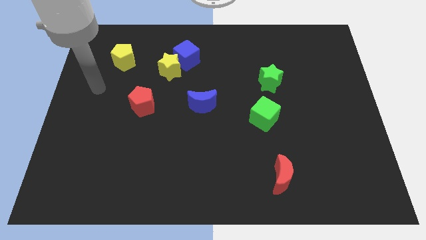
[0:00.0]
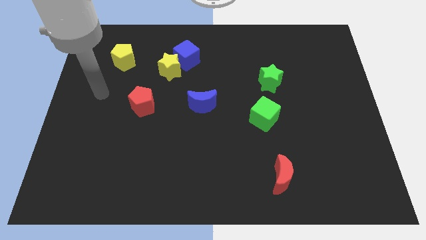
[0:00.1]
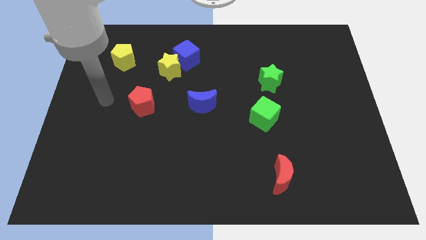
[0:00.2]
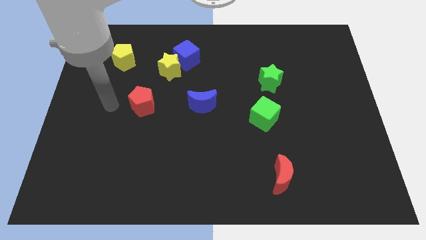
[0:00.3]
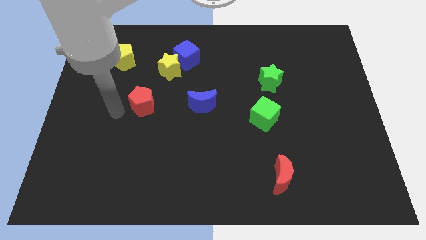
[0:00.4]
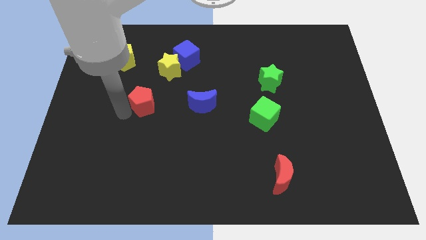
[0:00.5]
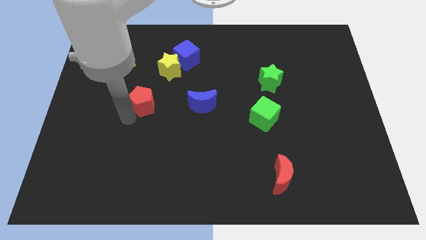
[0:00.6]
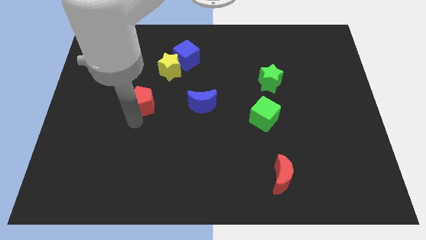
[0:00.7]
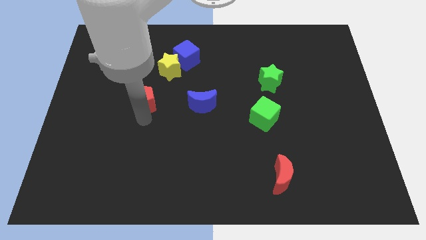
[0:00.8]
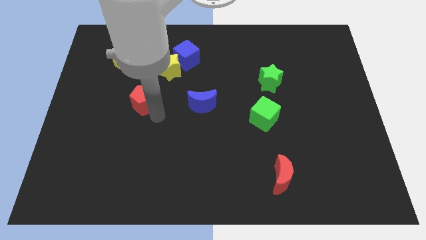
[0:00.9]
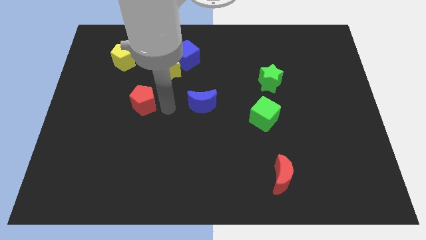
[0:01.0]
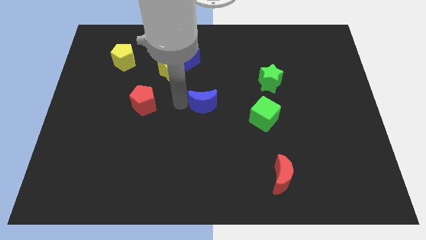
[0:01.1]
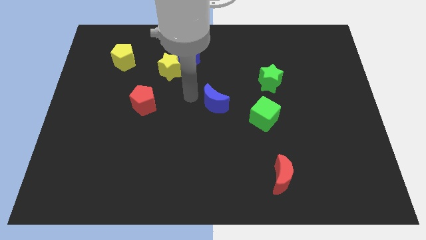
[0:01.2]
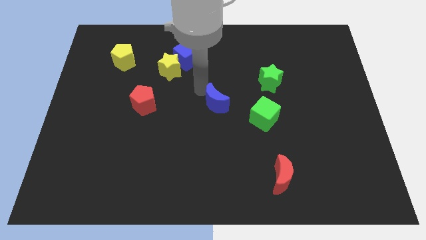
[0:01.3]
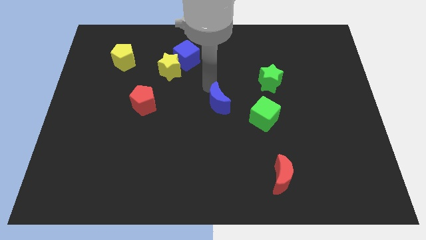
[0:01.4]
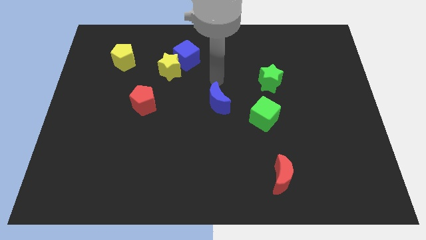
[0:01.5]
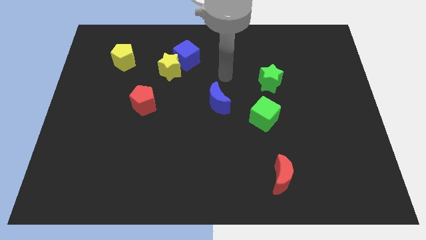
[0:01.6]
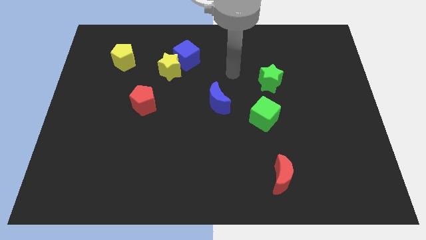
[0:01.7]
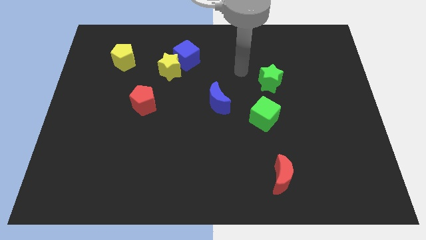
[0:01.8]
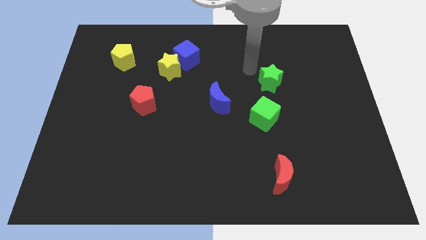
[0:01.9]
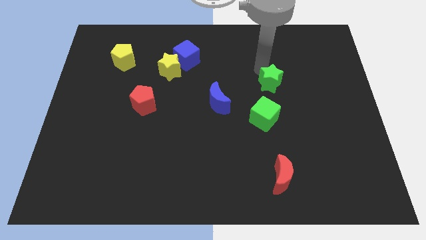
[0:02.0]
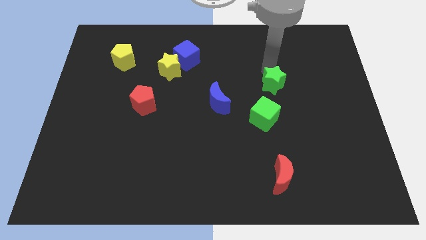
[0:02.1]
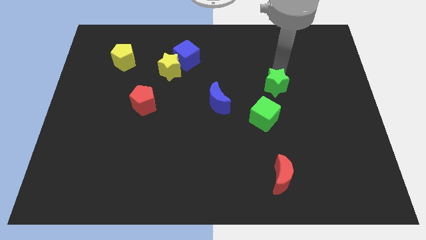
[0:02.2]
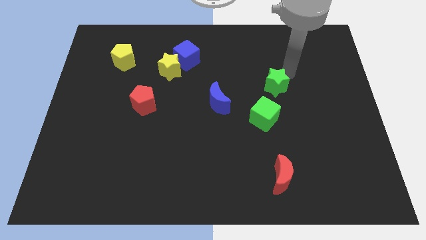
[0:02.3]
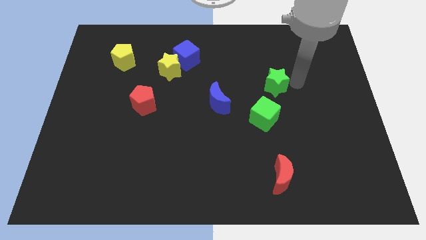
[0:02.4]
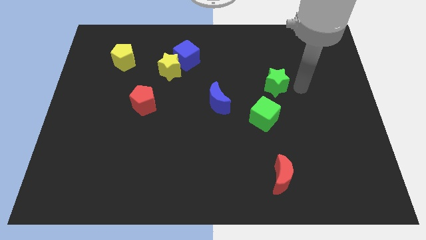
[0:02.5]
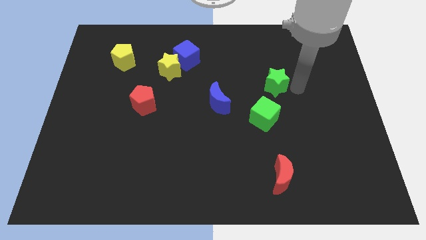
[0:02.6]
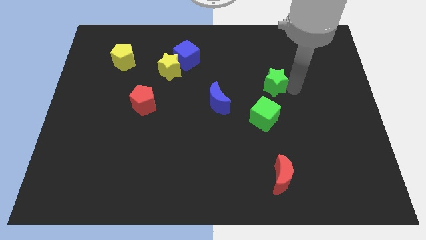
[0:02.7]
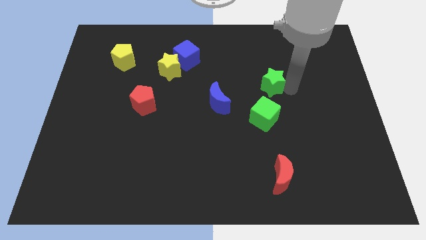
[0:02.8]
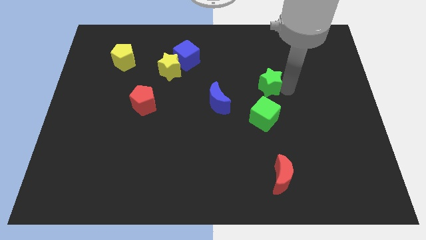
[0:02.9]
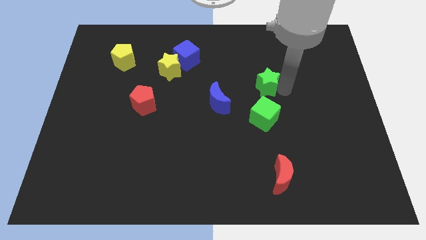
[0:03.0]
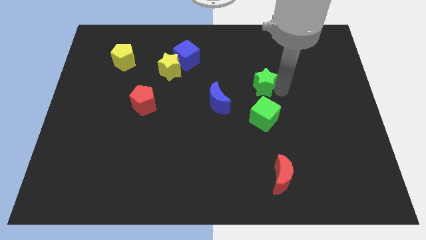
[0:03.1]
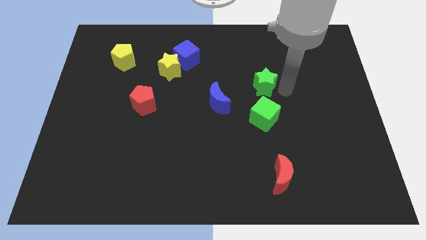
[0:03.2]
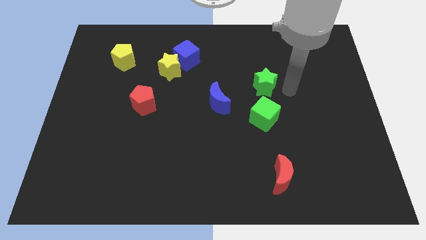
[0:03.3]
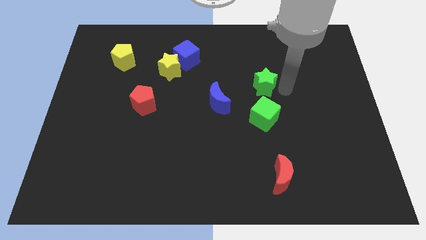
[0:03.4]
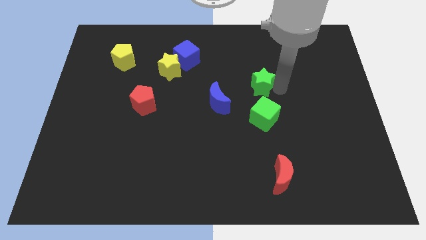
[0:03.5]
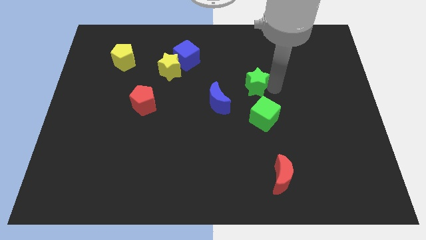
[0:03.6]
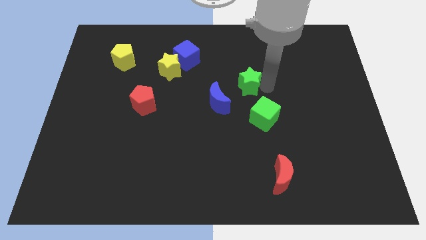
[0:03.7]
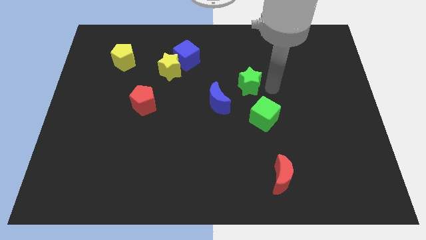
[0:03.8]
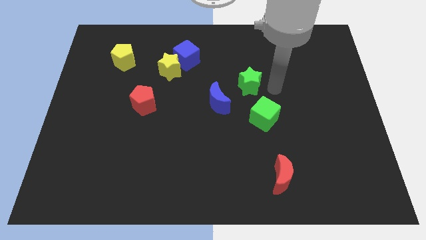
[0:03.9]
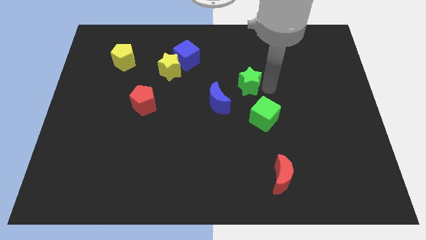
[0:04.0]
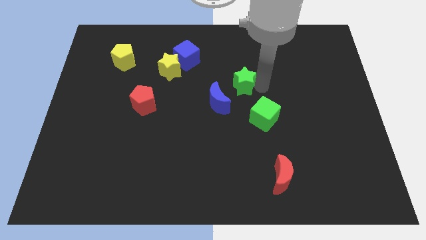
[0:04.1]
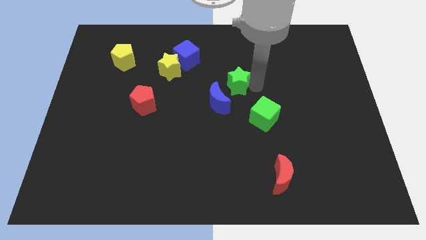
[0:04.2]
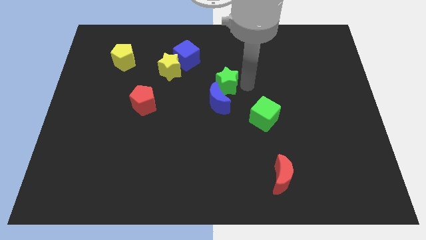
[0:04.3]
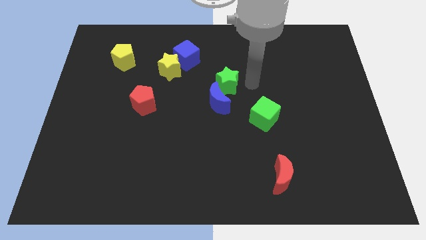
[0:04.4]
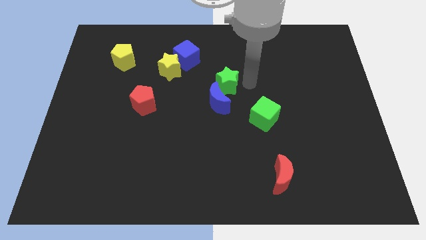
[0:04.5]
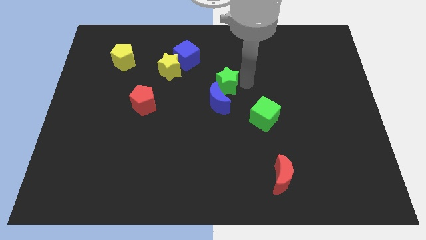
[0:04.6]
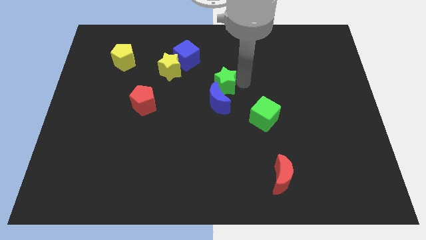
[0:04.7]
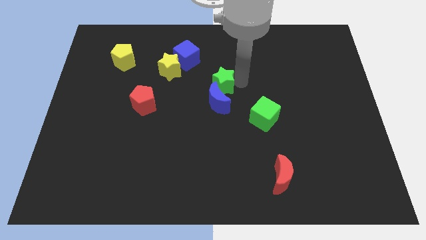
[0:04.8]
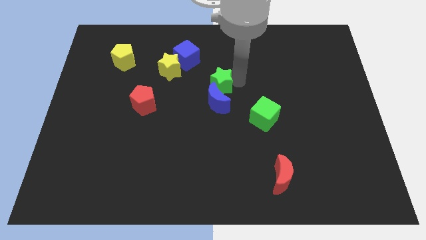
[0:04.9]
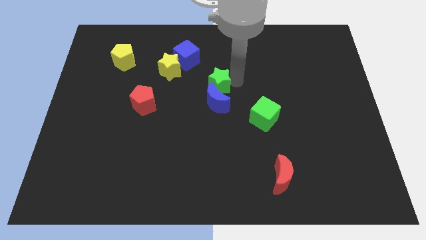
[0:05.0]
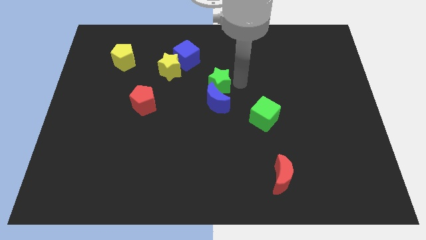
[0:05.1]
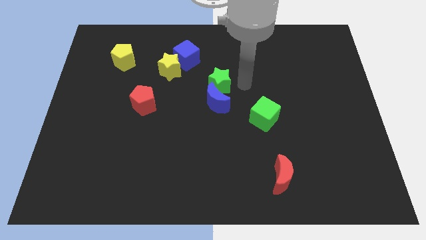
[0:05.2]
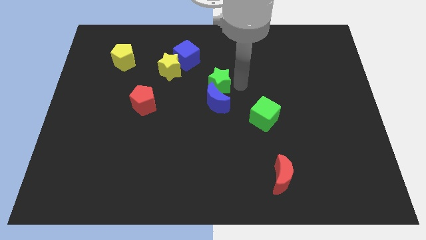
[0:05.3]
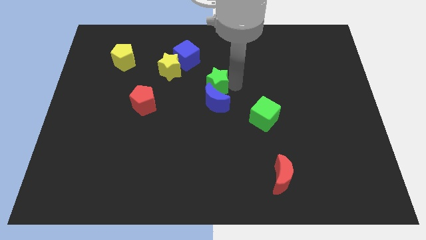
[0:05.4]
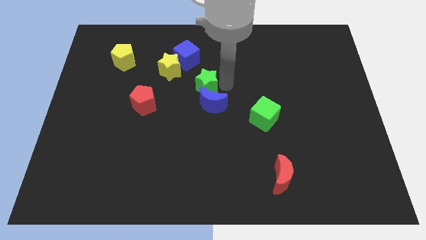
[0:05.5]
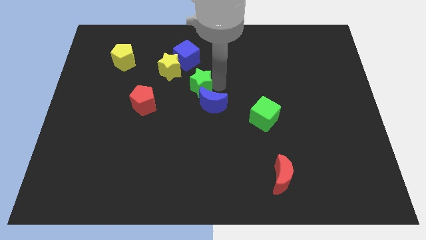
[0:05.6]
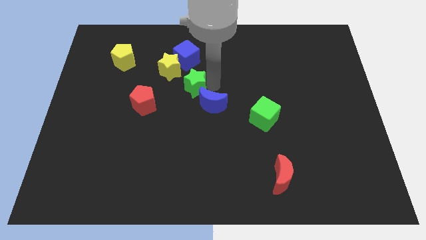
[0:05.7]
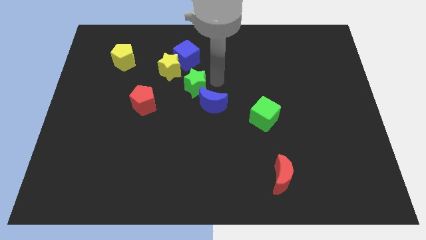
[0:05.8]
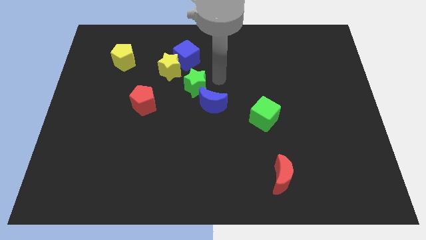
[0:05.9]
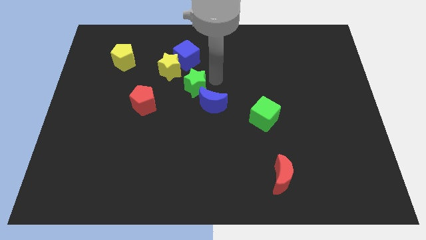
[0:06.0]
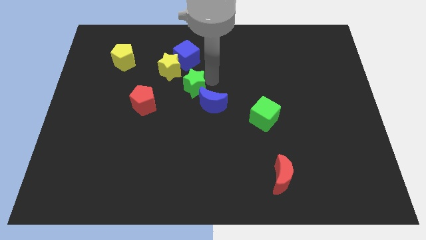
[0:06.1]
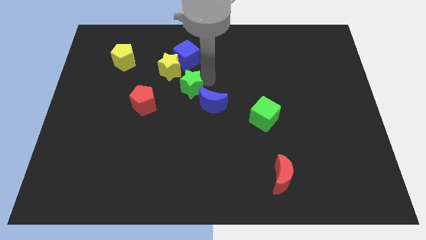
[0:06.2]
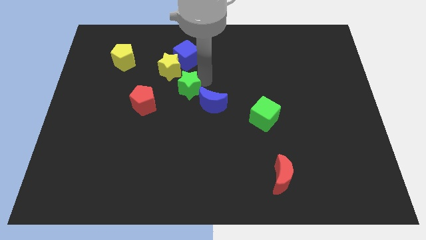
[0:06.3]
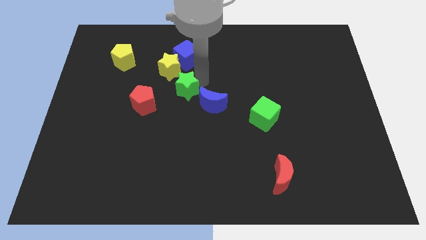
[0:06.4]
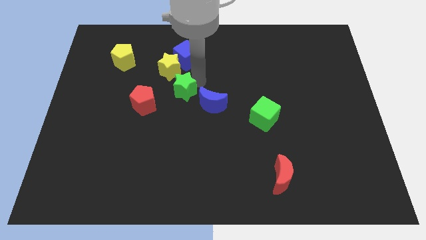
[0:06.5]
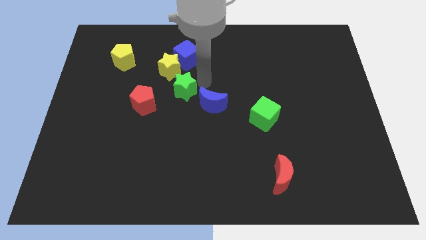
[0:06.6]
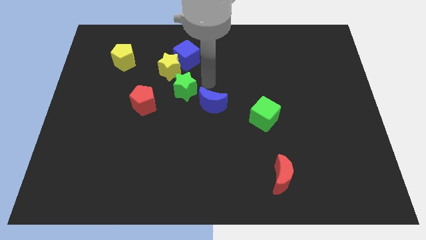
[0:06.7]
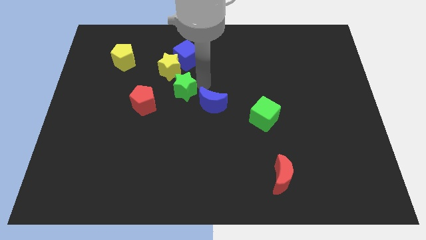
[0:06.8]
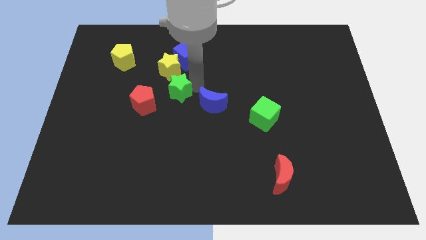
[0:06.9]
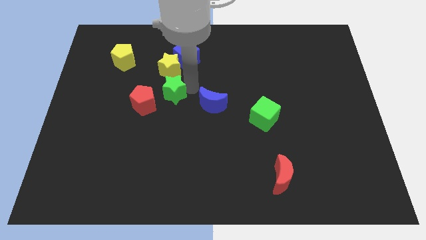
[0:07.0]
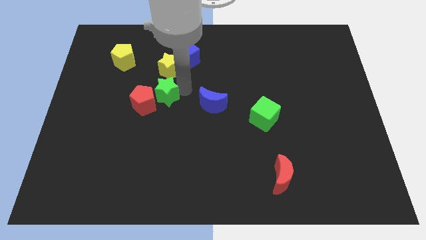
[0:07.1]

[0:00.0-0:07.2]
push the green star to the red pentagon

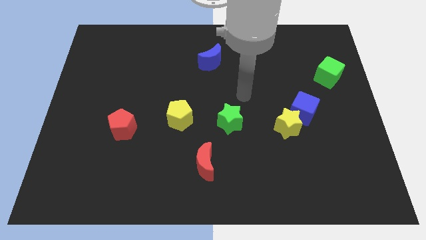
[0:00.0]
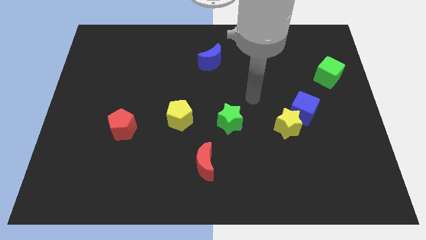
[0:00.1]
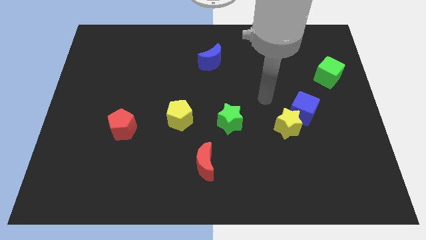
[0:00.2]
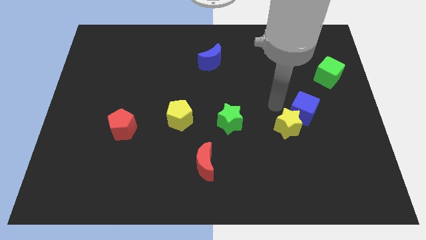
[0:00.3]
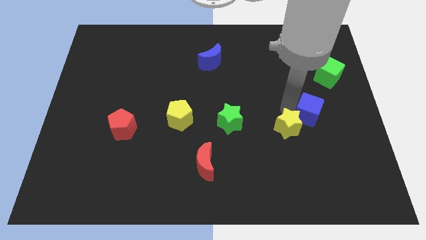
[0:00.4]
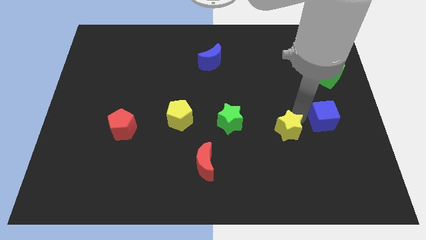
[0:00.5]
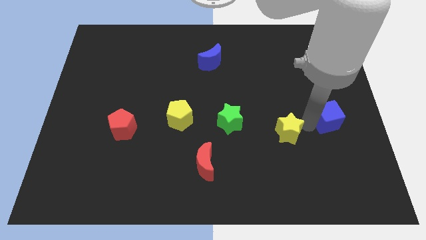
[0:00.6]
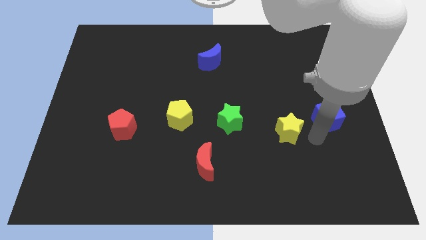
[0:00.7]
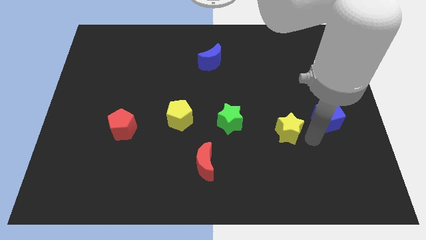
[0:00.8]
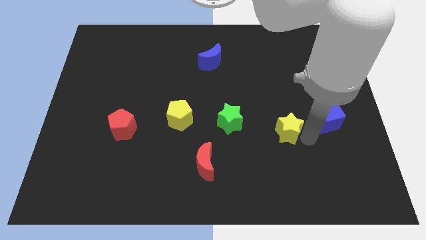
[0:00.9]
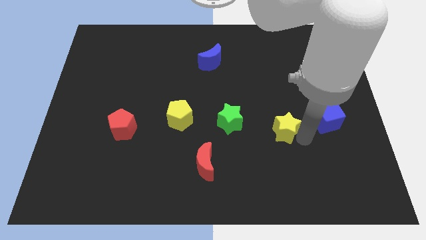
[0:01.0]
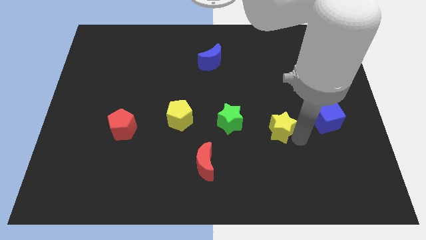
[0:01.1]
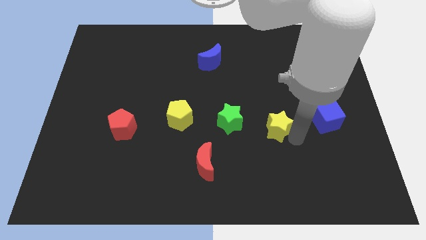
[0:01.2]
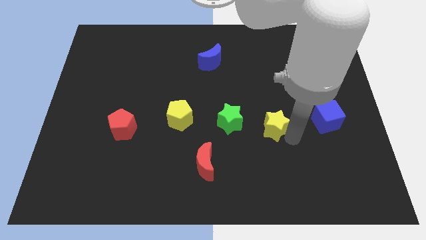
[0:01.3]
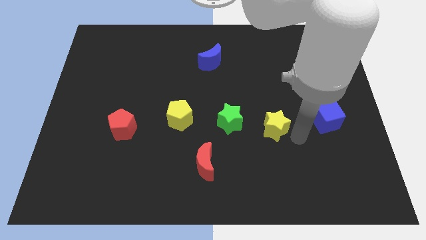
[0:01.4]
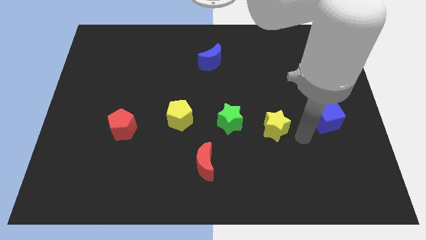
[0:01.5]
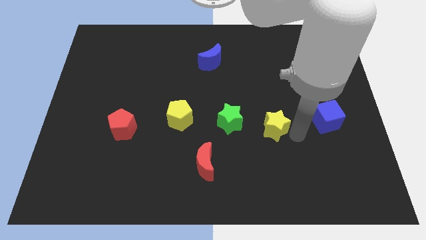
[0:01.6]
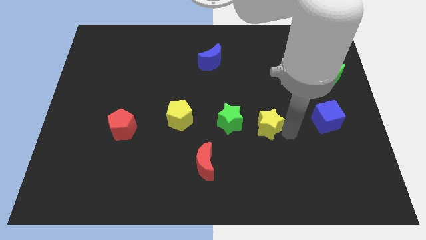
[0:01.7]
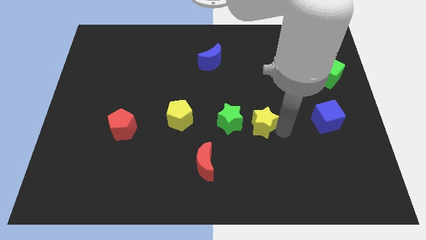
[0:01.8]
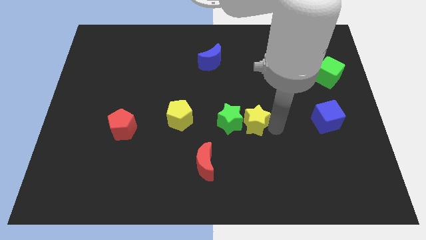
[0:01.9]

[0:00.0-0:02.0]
push the yellow star to the green star
